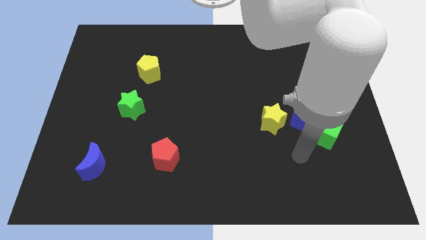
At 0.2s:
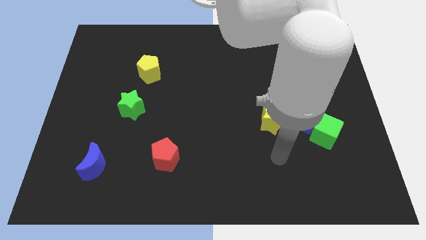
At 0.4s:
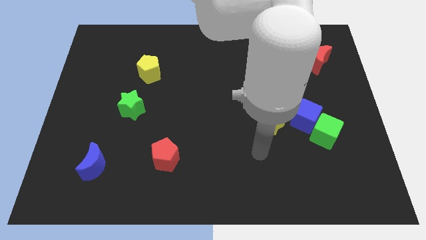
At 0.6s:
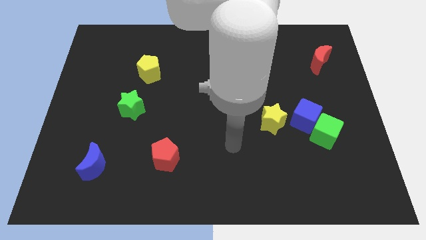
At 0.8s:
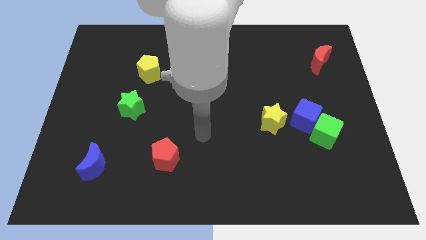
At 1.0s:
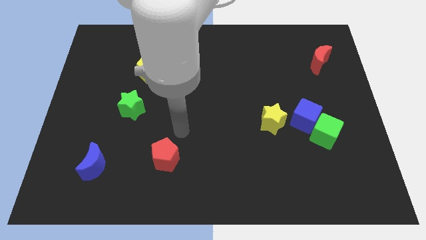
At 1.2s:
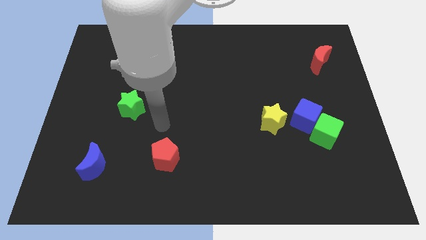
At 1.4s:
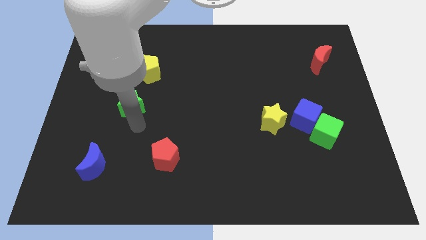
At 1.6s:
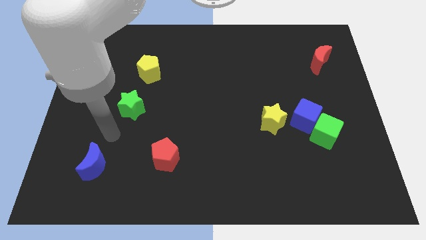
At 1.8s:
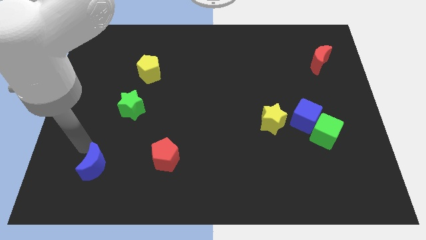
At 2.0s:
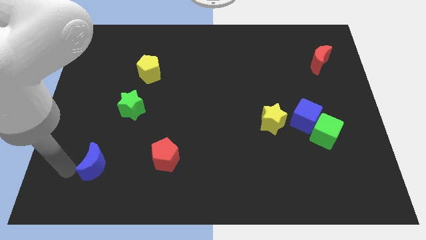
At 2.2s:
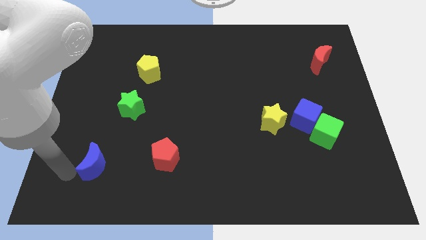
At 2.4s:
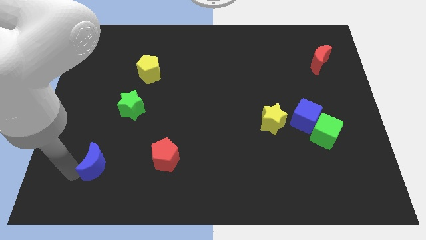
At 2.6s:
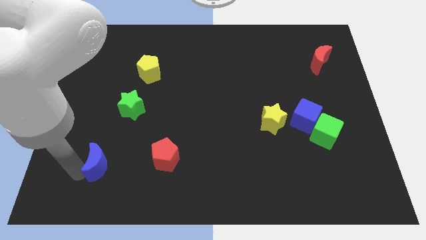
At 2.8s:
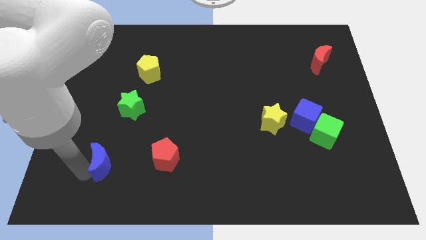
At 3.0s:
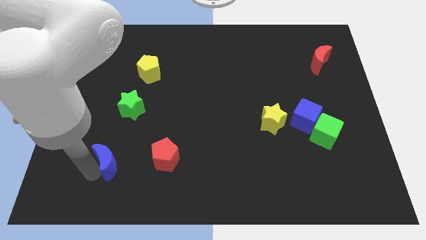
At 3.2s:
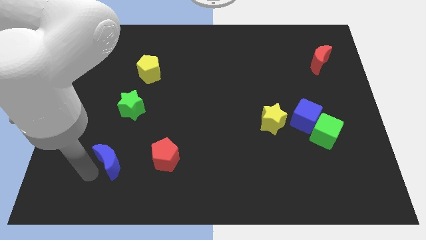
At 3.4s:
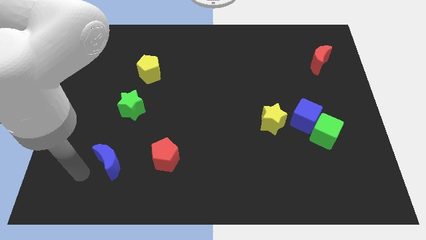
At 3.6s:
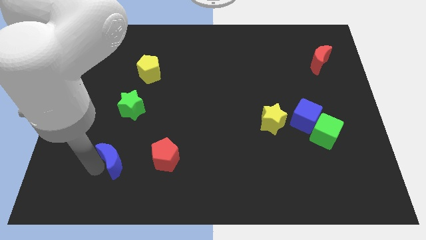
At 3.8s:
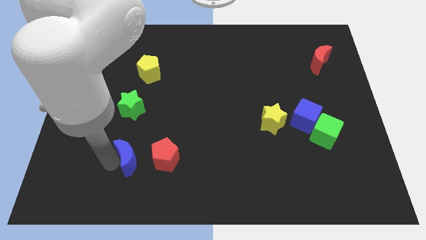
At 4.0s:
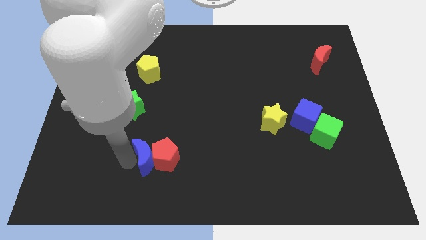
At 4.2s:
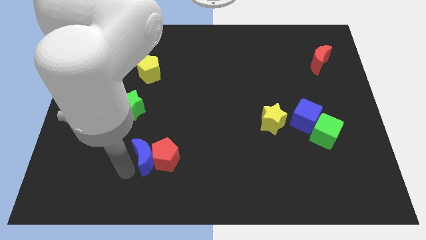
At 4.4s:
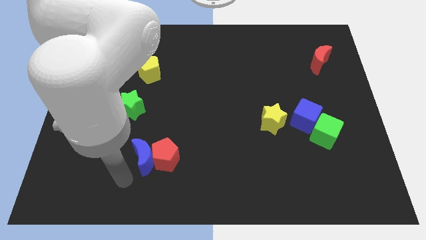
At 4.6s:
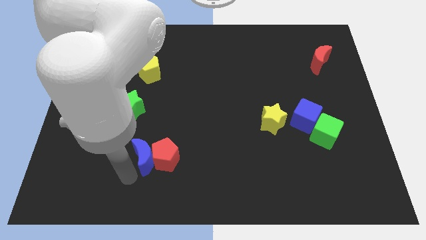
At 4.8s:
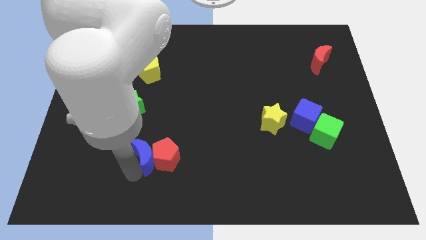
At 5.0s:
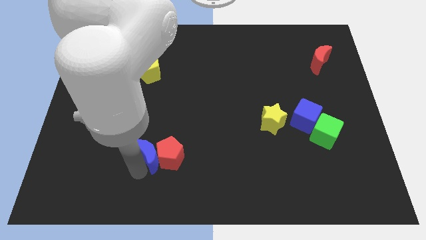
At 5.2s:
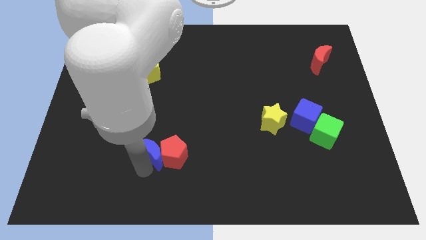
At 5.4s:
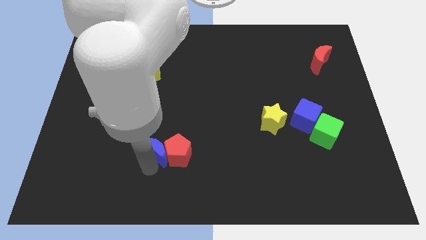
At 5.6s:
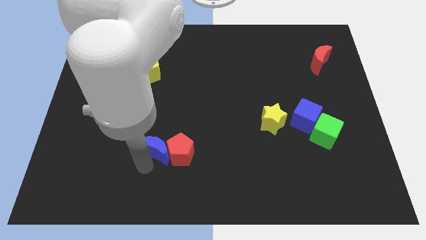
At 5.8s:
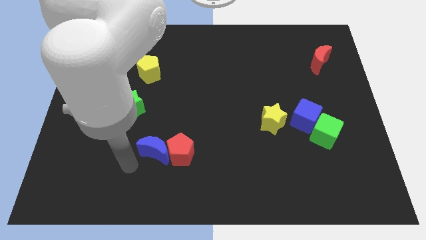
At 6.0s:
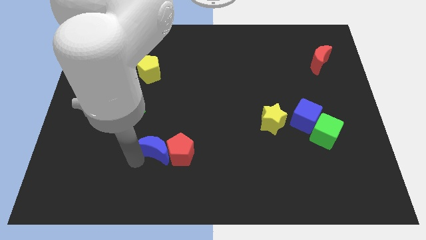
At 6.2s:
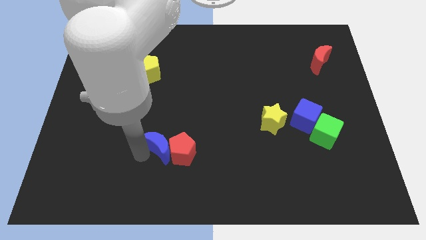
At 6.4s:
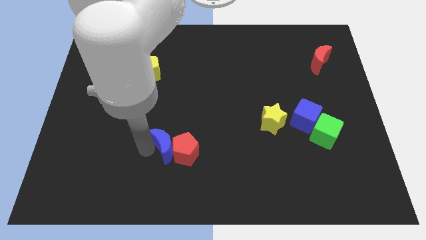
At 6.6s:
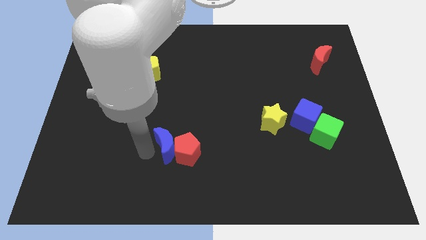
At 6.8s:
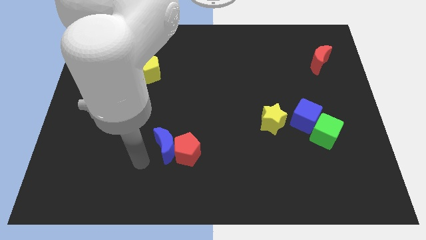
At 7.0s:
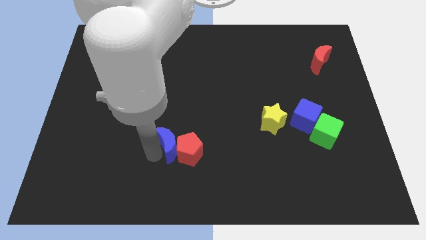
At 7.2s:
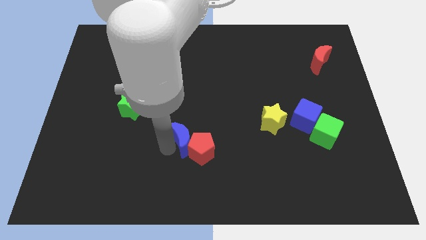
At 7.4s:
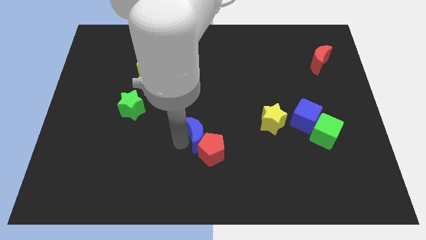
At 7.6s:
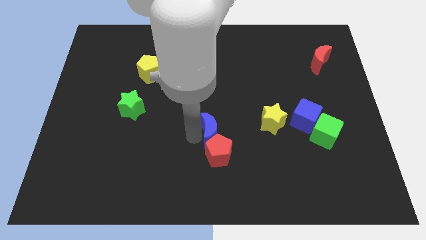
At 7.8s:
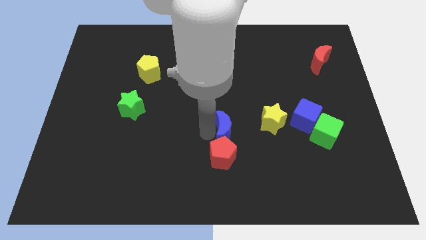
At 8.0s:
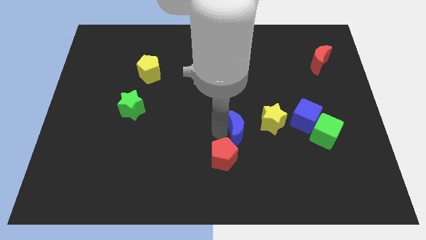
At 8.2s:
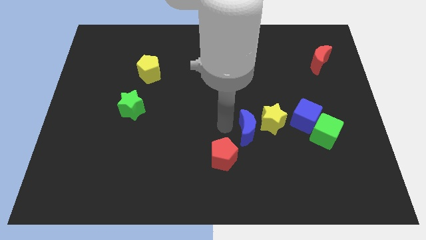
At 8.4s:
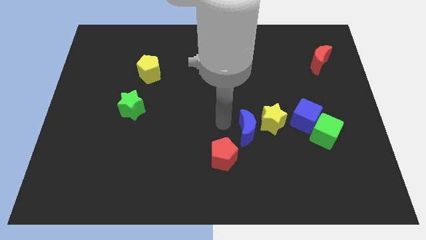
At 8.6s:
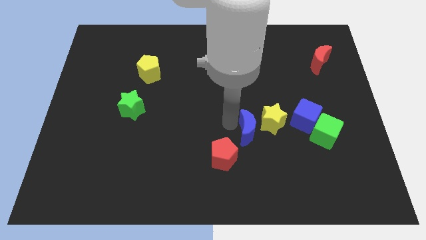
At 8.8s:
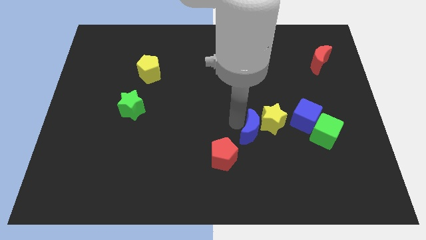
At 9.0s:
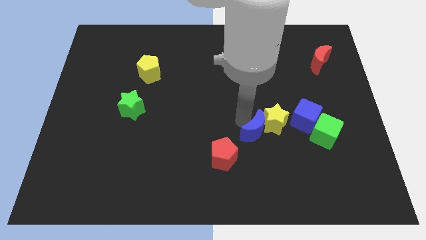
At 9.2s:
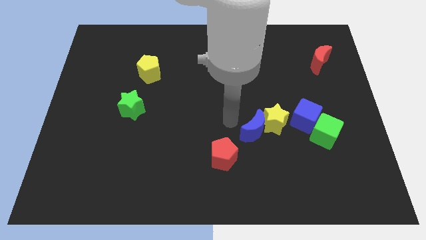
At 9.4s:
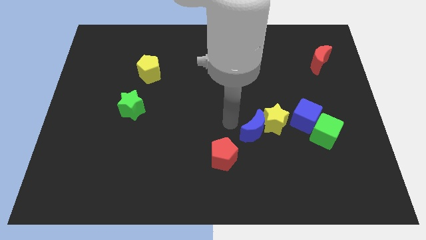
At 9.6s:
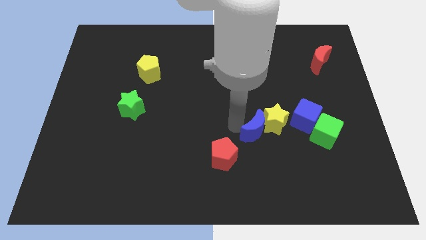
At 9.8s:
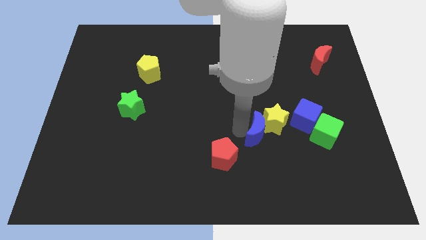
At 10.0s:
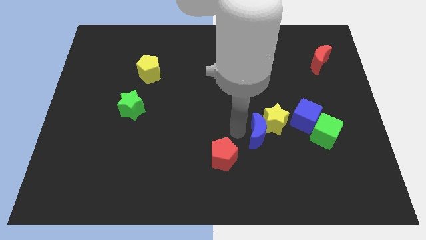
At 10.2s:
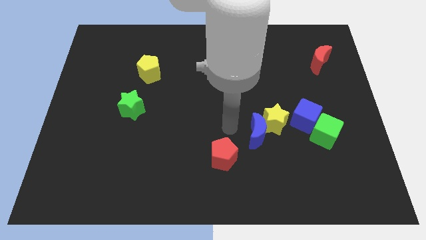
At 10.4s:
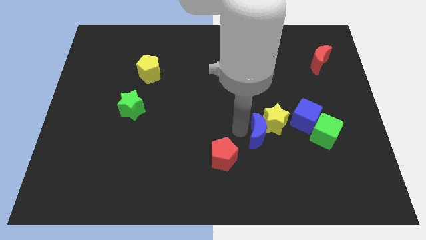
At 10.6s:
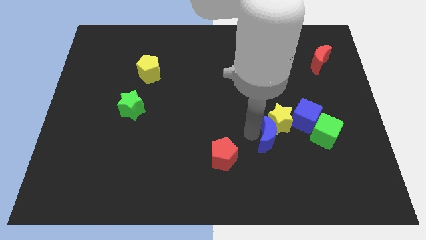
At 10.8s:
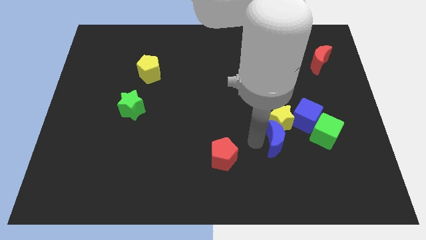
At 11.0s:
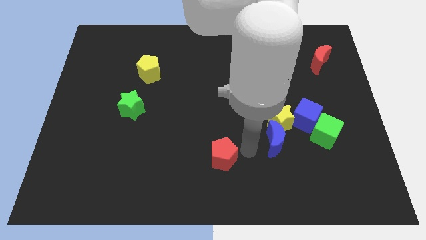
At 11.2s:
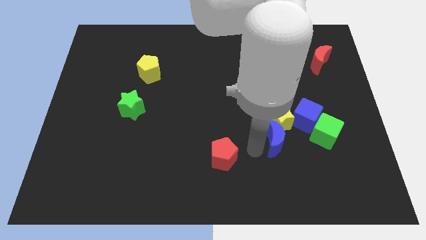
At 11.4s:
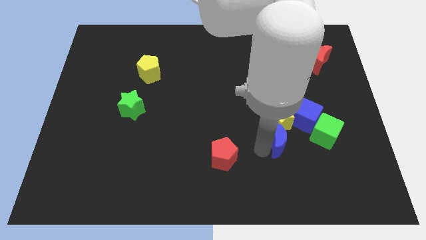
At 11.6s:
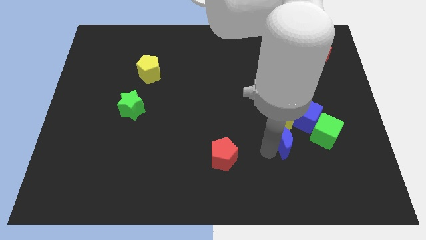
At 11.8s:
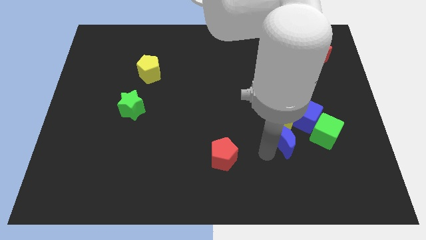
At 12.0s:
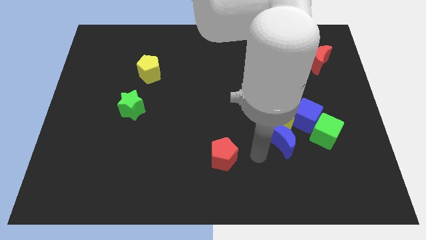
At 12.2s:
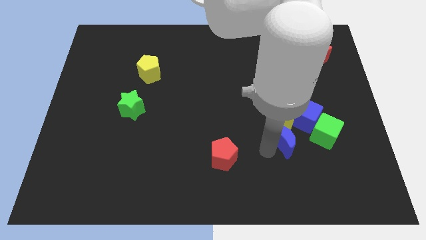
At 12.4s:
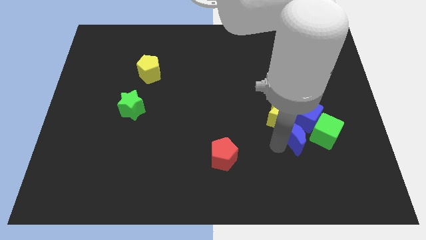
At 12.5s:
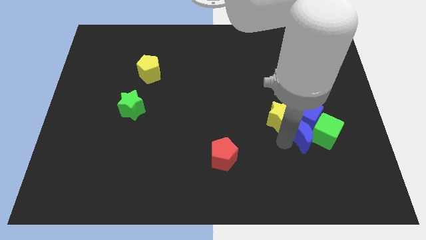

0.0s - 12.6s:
slide the blue moon to the green cube

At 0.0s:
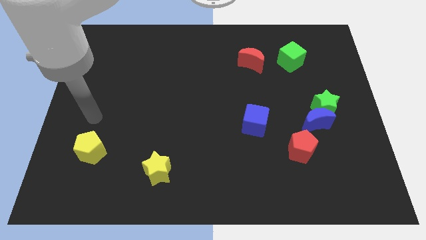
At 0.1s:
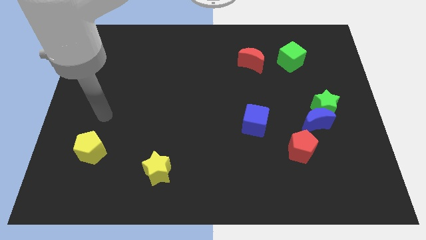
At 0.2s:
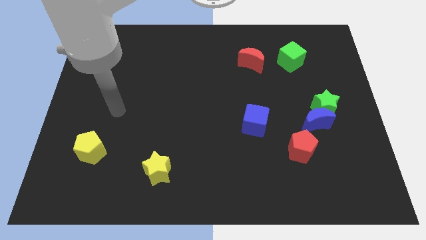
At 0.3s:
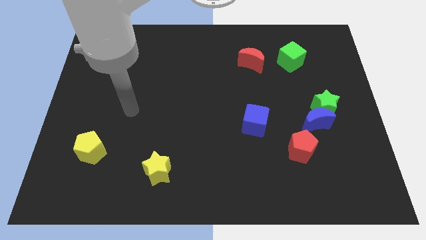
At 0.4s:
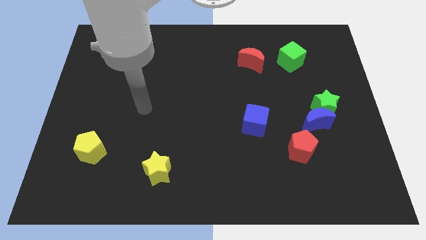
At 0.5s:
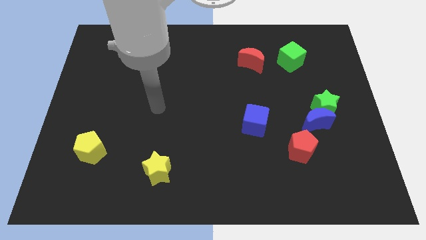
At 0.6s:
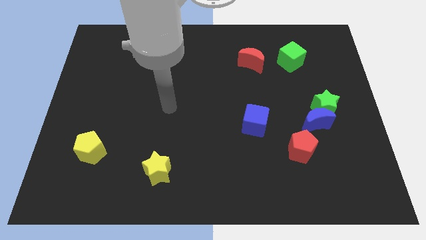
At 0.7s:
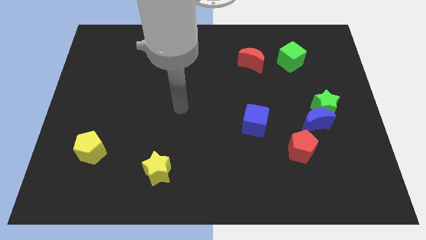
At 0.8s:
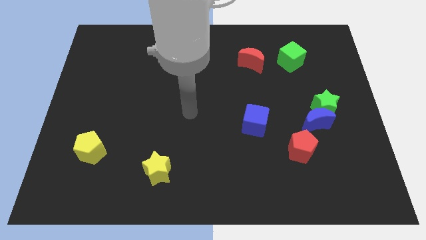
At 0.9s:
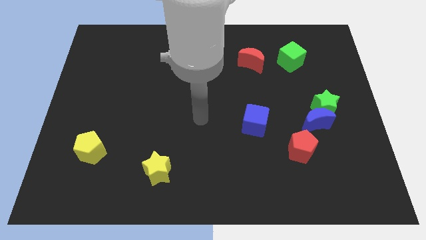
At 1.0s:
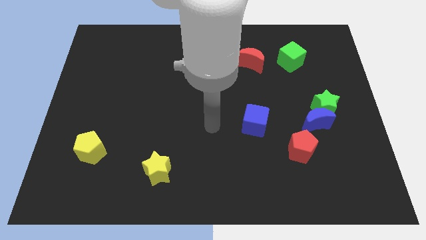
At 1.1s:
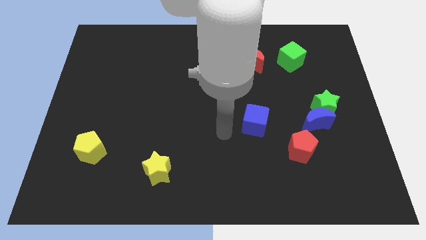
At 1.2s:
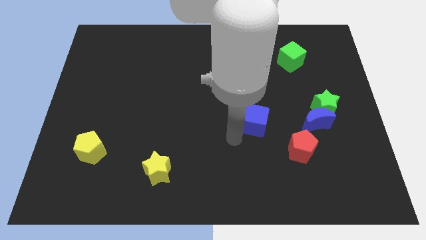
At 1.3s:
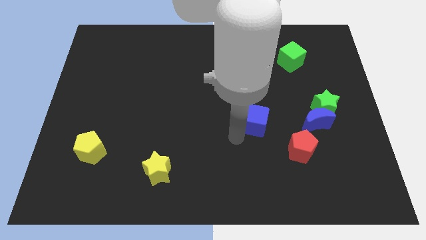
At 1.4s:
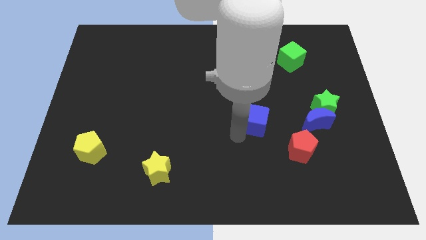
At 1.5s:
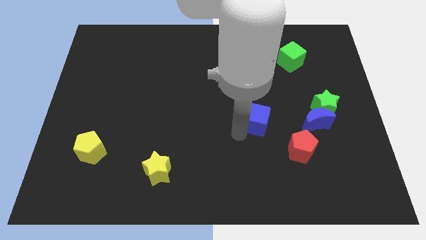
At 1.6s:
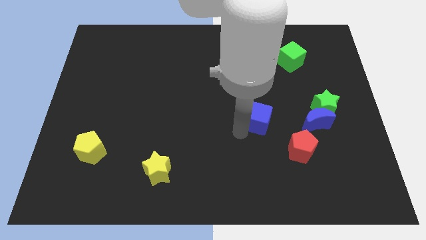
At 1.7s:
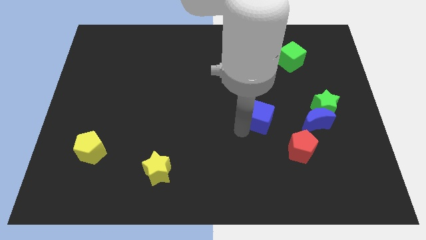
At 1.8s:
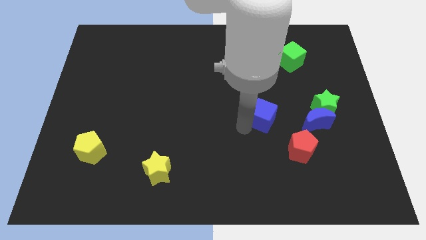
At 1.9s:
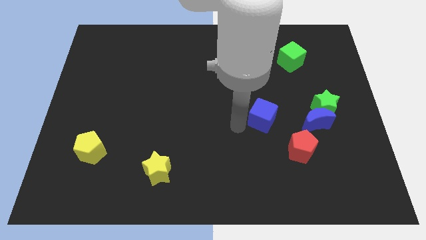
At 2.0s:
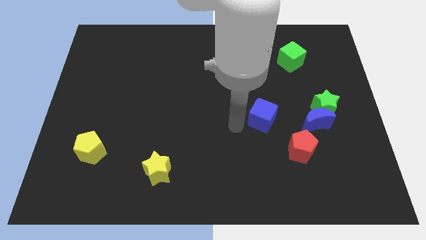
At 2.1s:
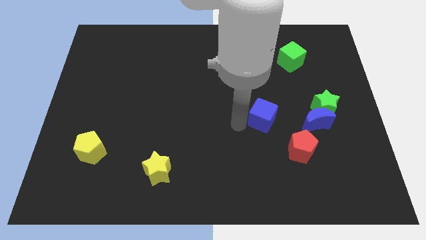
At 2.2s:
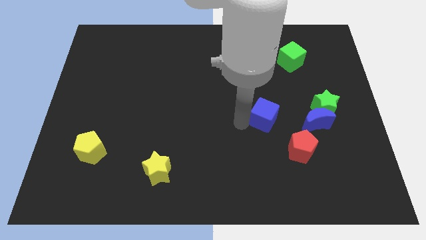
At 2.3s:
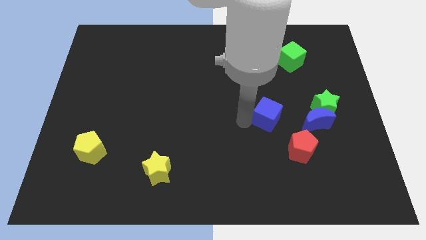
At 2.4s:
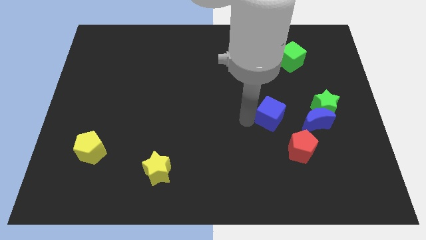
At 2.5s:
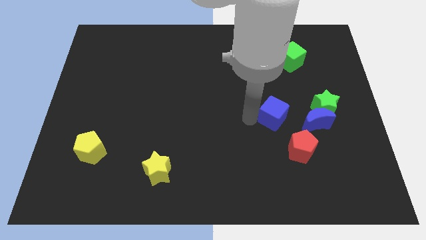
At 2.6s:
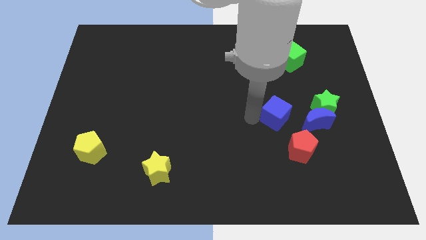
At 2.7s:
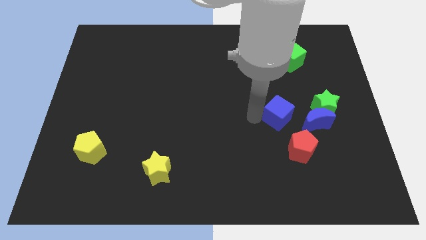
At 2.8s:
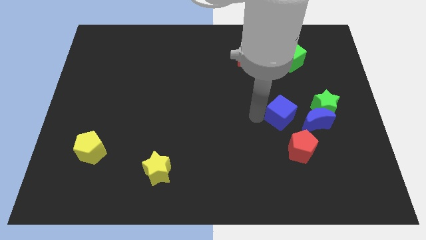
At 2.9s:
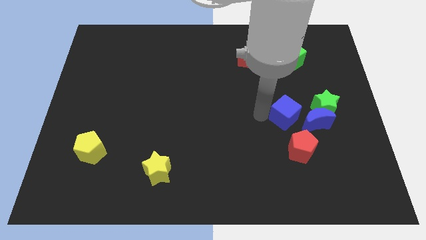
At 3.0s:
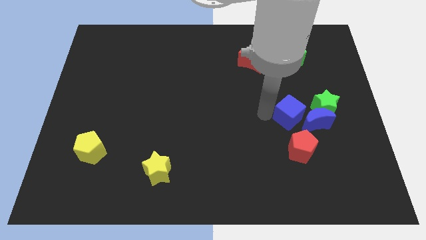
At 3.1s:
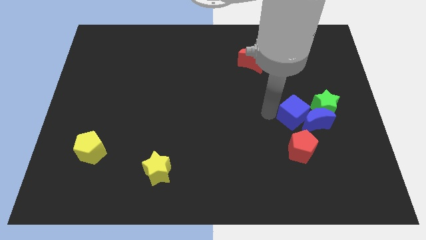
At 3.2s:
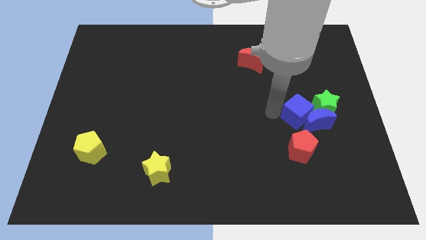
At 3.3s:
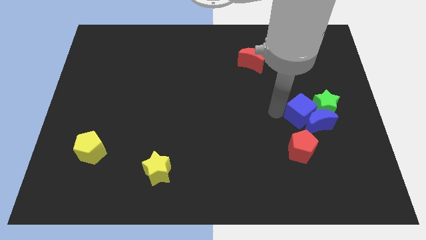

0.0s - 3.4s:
put the blue cube to the green star
